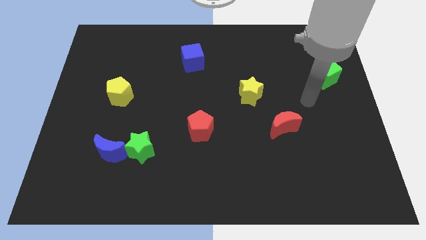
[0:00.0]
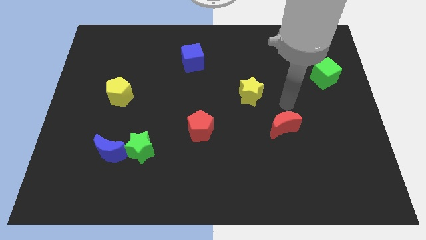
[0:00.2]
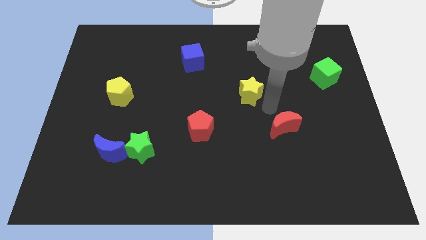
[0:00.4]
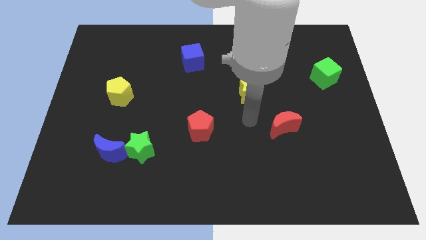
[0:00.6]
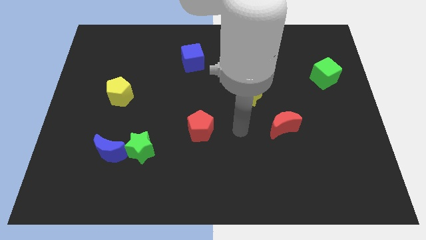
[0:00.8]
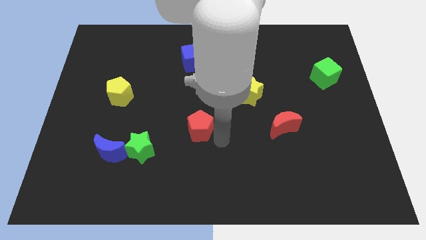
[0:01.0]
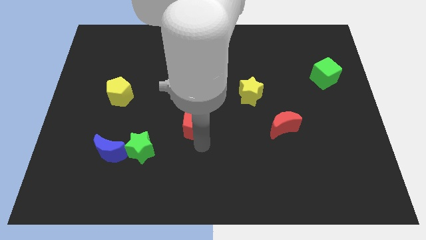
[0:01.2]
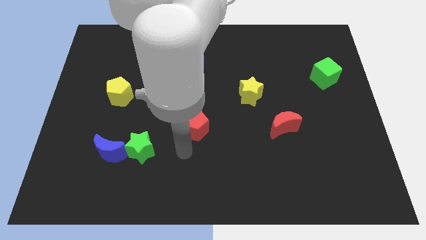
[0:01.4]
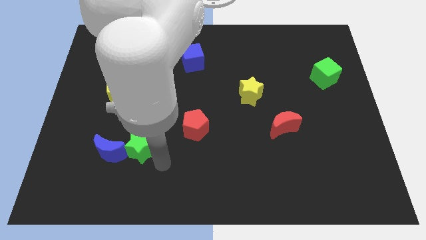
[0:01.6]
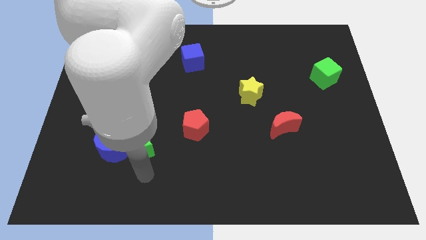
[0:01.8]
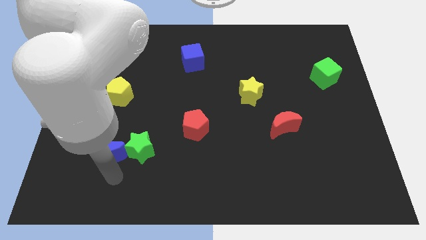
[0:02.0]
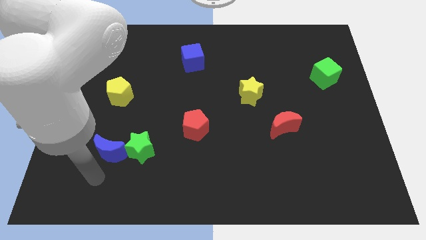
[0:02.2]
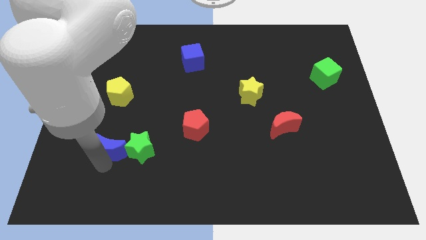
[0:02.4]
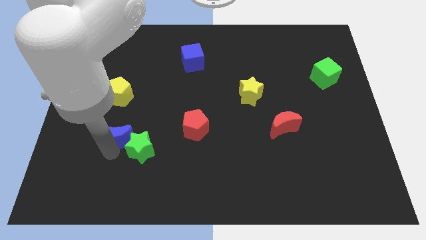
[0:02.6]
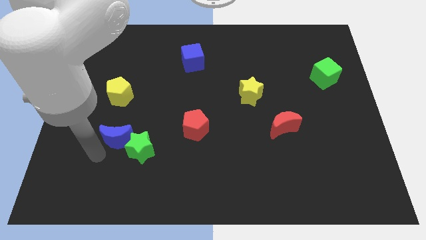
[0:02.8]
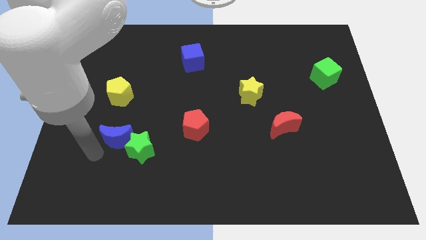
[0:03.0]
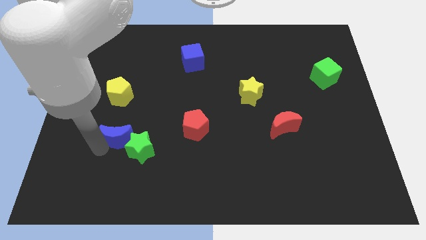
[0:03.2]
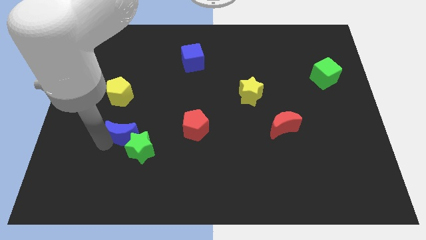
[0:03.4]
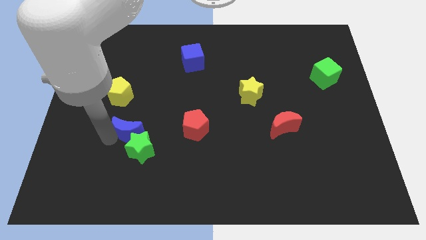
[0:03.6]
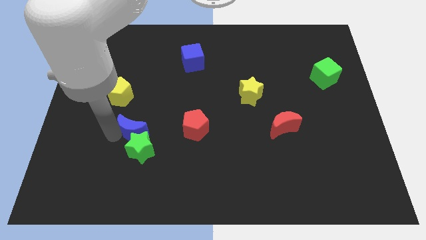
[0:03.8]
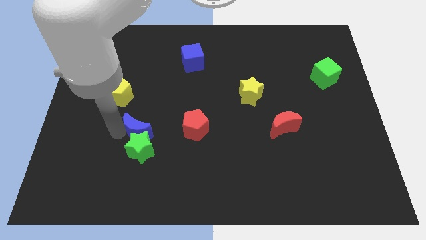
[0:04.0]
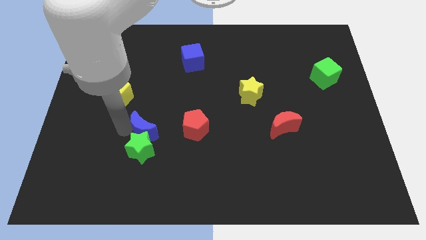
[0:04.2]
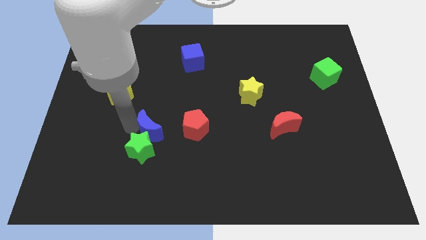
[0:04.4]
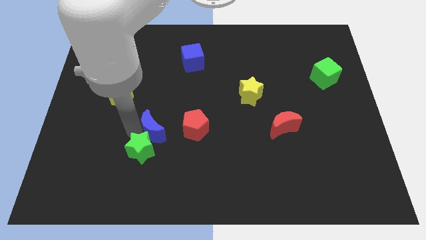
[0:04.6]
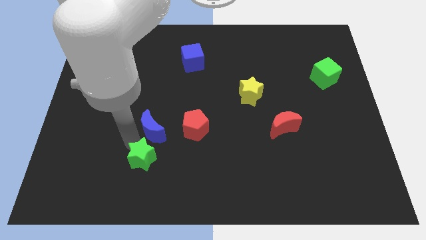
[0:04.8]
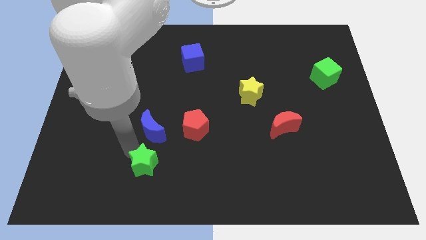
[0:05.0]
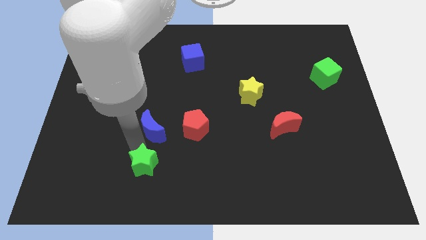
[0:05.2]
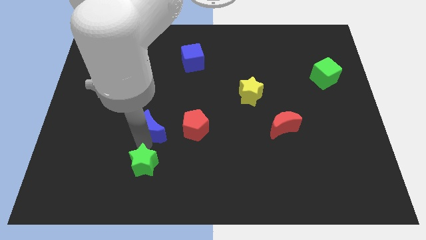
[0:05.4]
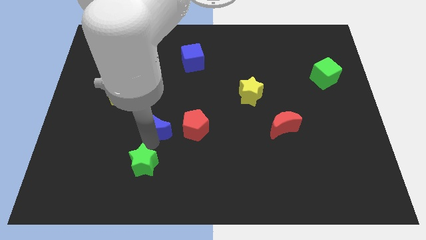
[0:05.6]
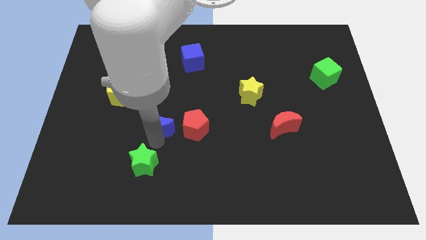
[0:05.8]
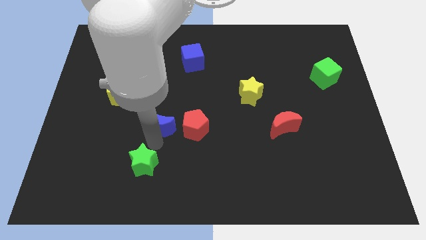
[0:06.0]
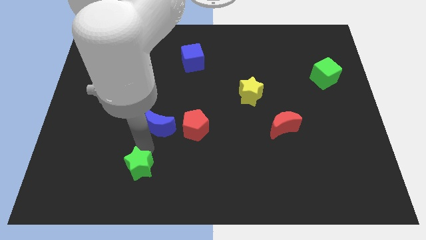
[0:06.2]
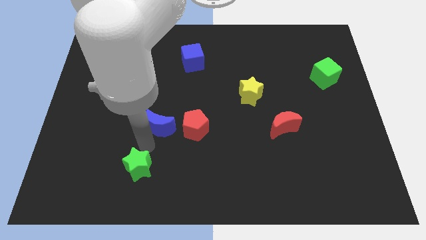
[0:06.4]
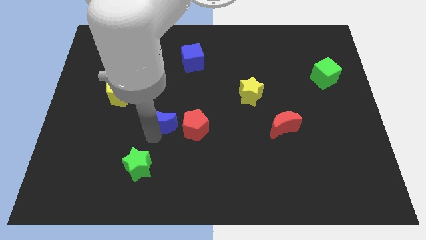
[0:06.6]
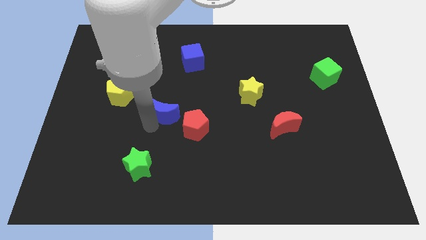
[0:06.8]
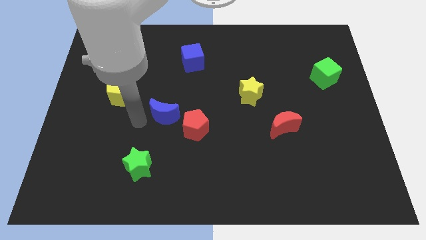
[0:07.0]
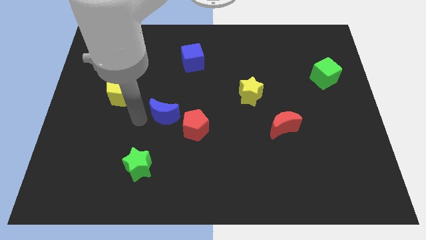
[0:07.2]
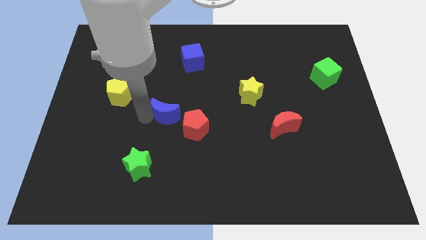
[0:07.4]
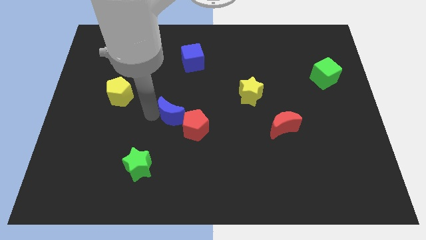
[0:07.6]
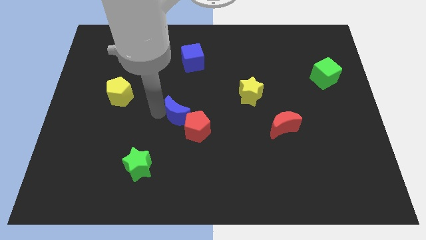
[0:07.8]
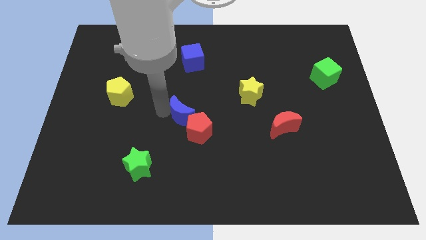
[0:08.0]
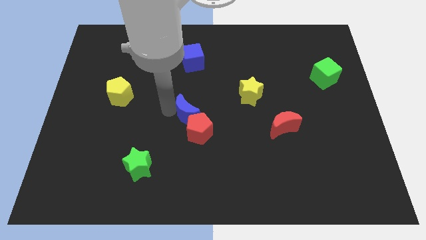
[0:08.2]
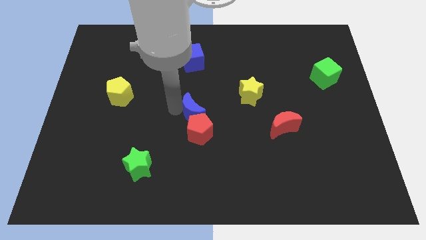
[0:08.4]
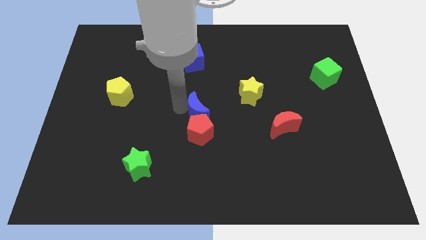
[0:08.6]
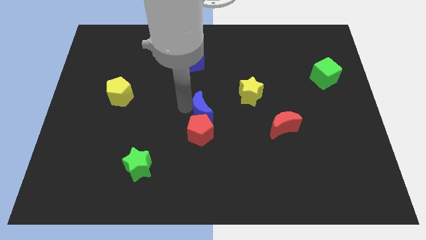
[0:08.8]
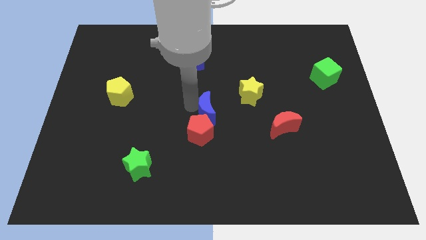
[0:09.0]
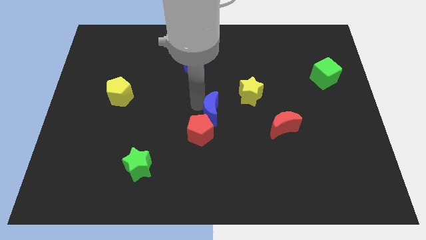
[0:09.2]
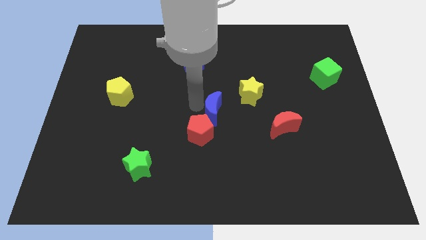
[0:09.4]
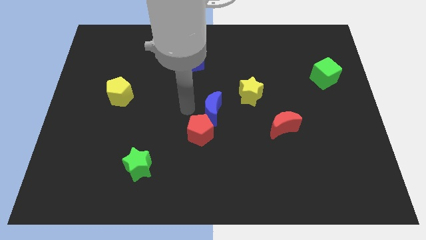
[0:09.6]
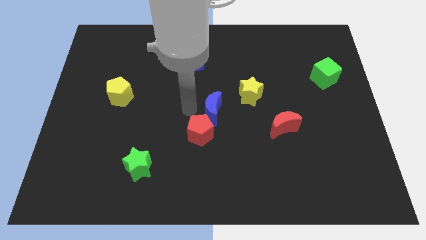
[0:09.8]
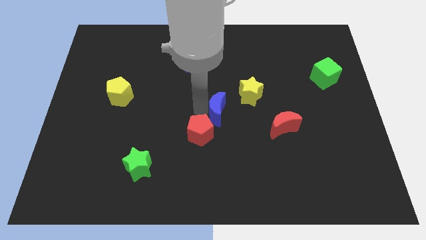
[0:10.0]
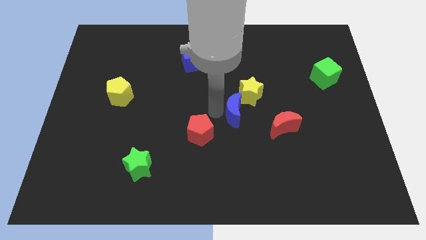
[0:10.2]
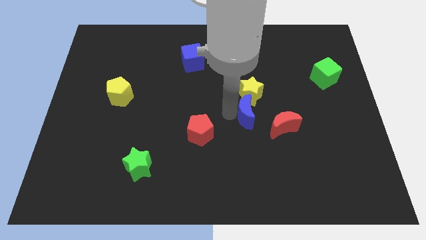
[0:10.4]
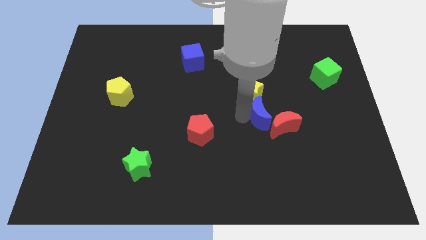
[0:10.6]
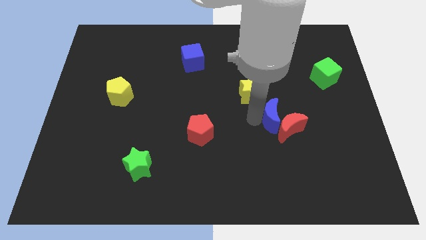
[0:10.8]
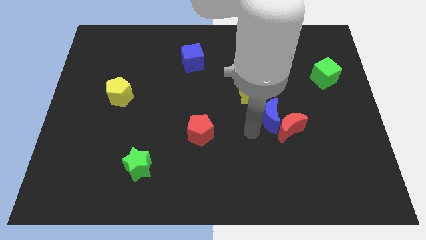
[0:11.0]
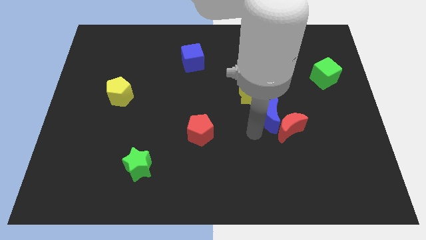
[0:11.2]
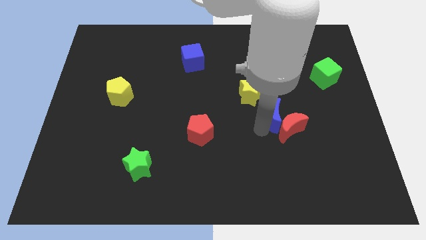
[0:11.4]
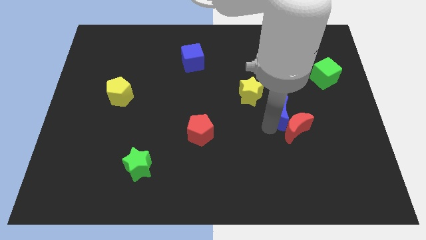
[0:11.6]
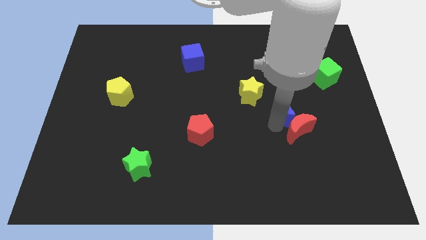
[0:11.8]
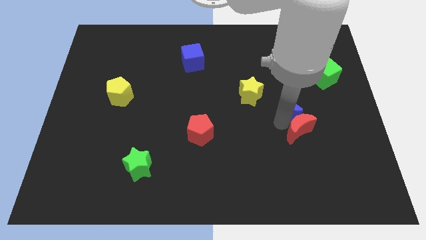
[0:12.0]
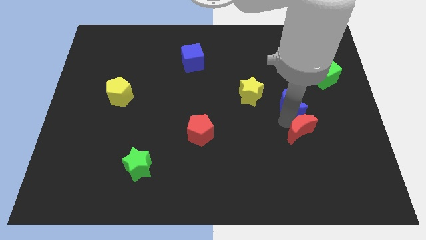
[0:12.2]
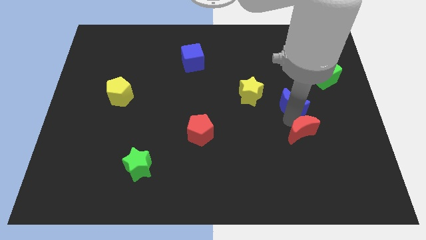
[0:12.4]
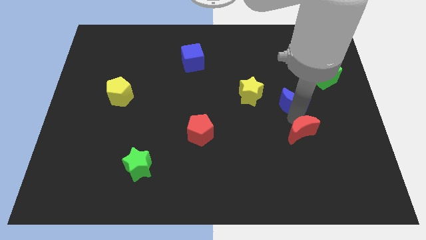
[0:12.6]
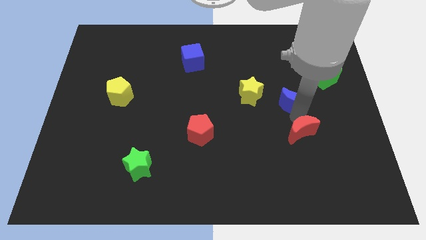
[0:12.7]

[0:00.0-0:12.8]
slide the blue moon to the bottom left of the green cube
